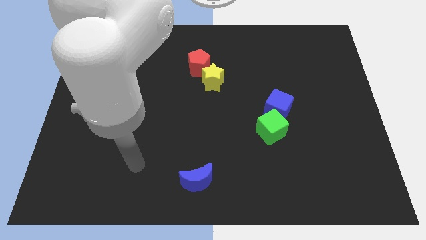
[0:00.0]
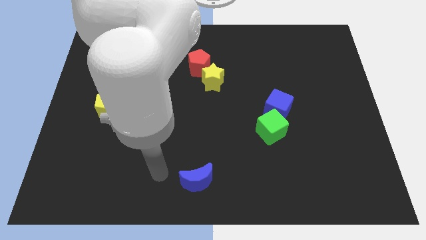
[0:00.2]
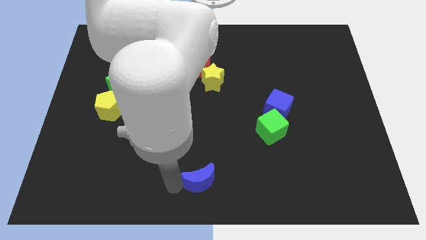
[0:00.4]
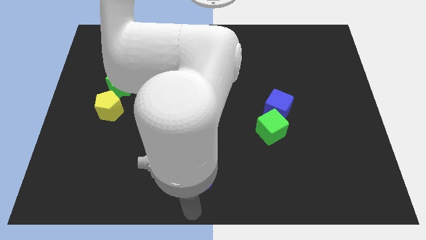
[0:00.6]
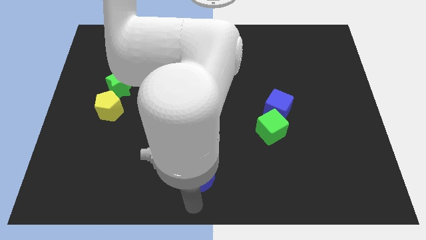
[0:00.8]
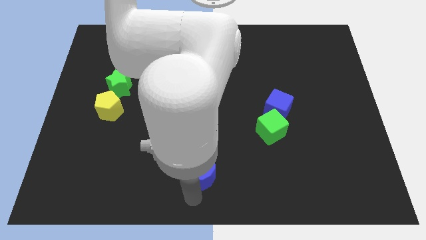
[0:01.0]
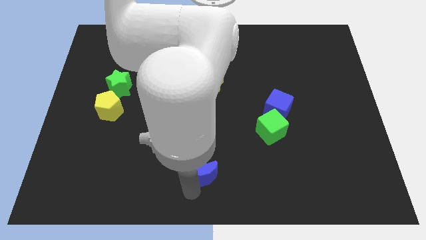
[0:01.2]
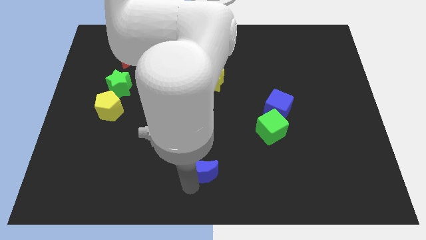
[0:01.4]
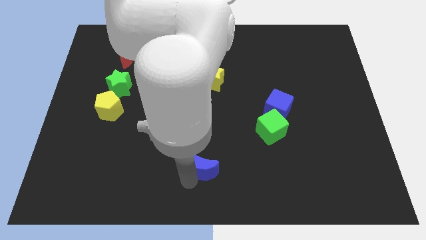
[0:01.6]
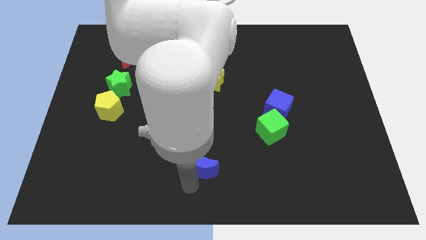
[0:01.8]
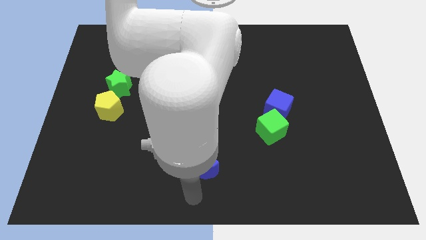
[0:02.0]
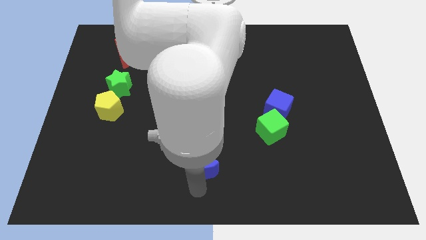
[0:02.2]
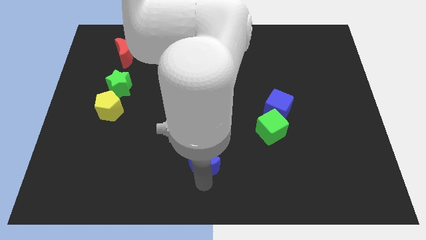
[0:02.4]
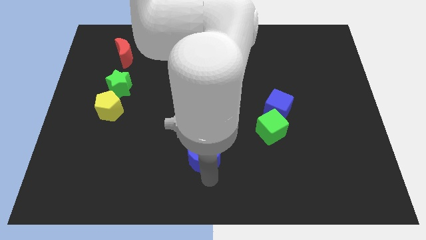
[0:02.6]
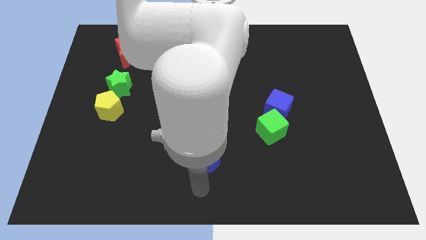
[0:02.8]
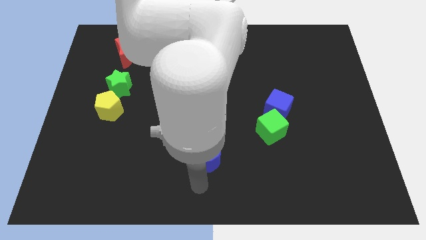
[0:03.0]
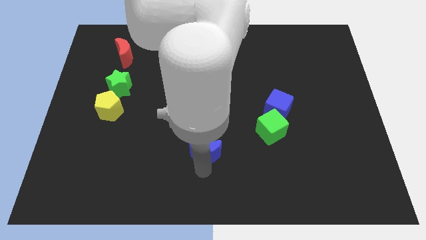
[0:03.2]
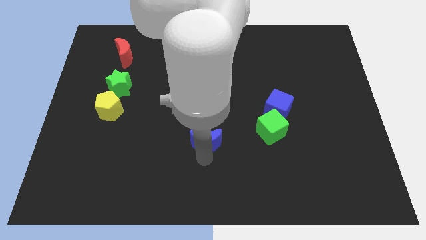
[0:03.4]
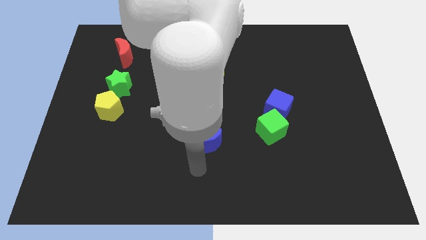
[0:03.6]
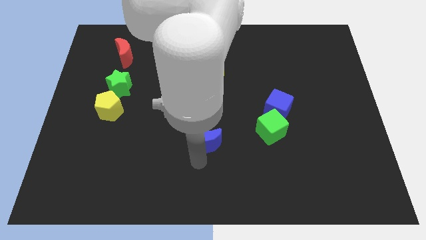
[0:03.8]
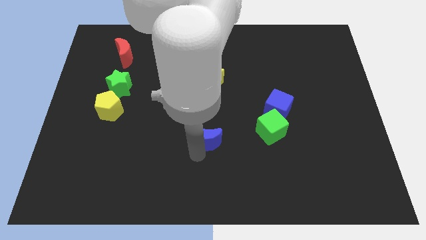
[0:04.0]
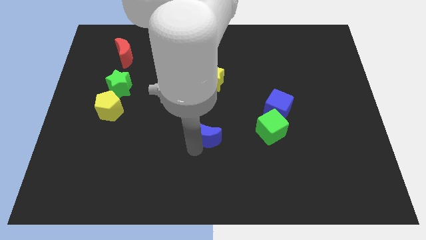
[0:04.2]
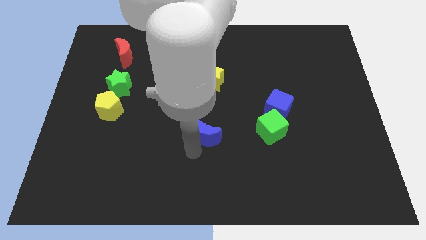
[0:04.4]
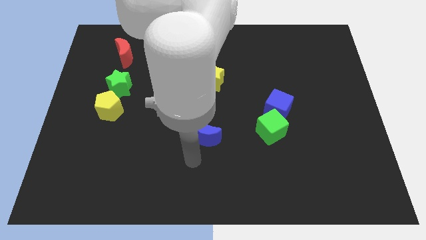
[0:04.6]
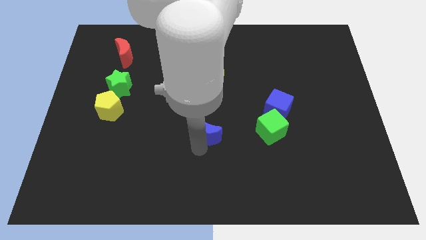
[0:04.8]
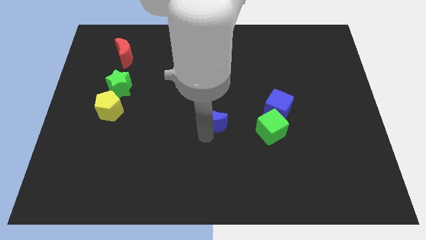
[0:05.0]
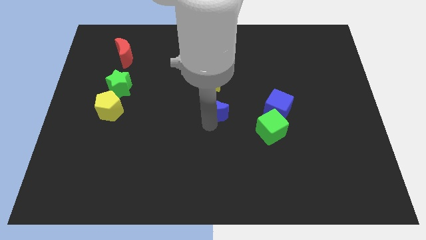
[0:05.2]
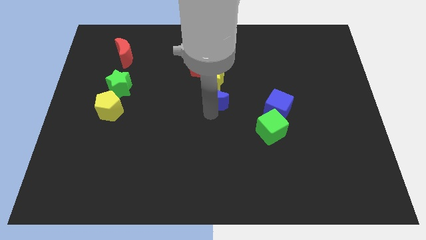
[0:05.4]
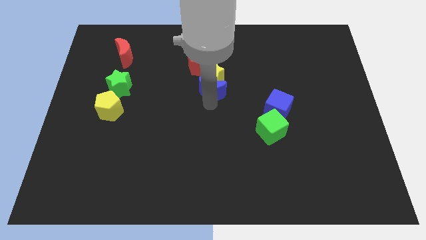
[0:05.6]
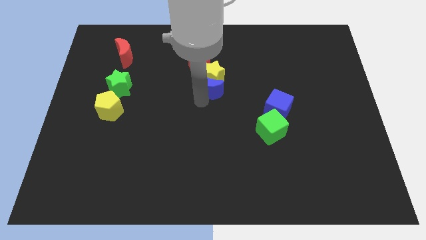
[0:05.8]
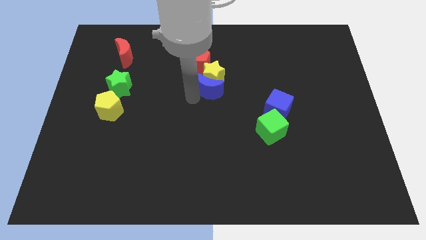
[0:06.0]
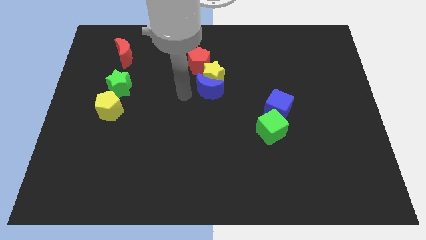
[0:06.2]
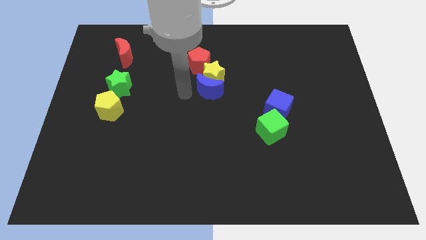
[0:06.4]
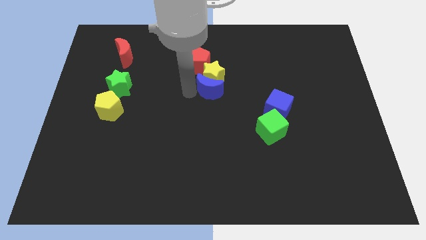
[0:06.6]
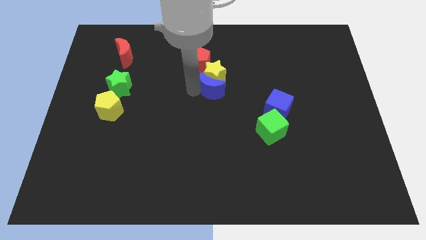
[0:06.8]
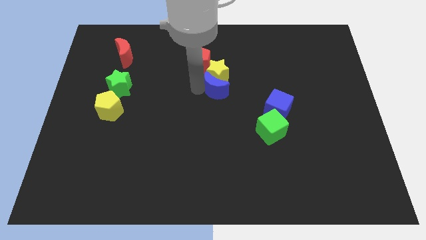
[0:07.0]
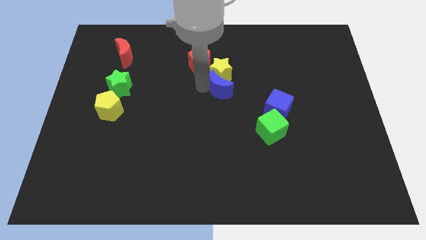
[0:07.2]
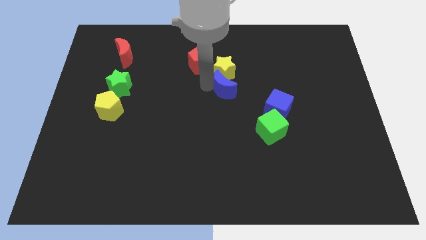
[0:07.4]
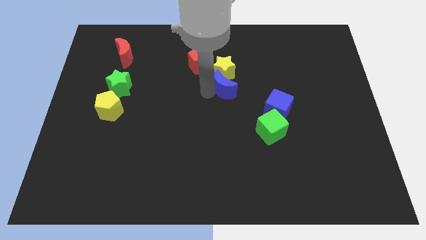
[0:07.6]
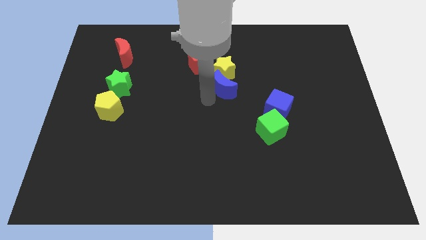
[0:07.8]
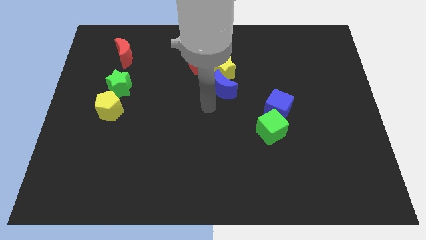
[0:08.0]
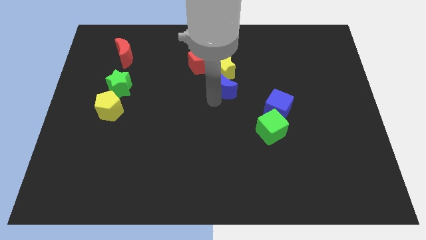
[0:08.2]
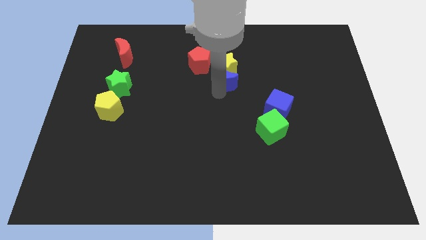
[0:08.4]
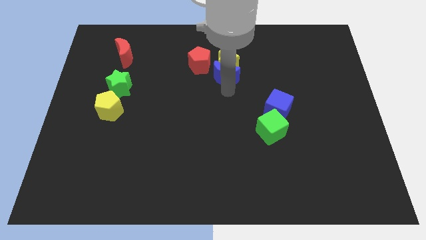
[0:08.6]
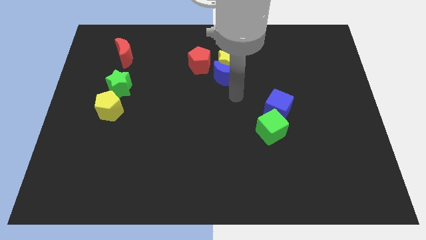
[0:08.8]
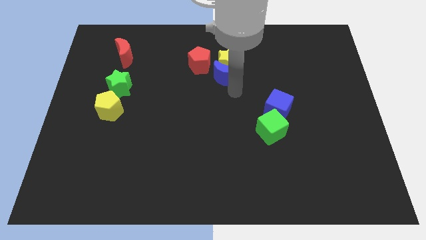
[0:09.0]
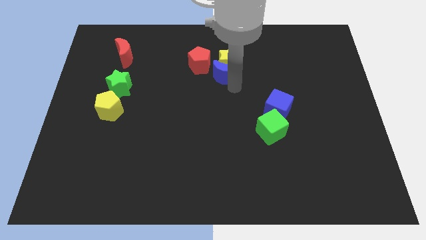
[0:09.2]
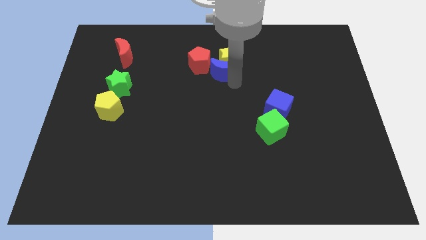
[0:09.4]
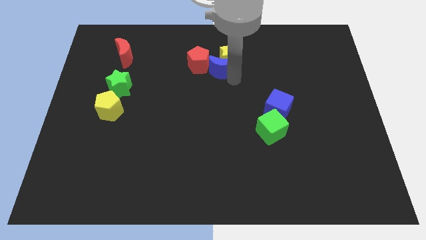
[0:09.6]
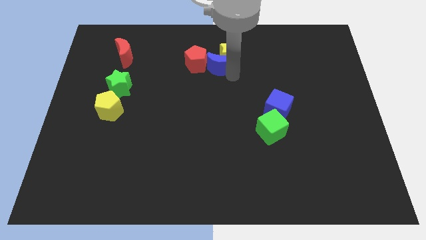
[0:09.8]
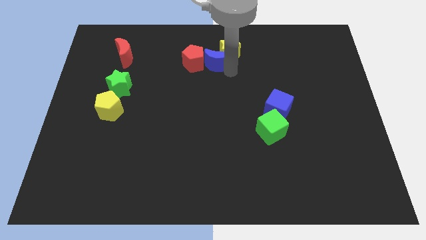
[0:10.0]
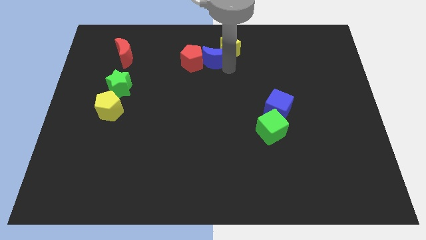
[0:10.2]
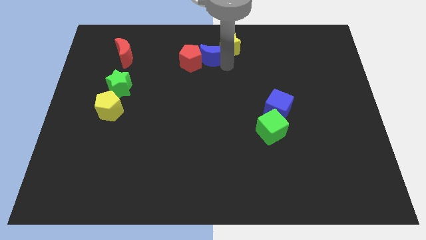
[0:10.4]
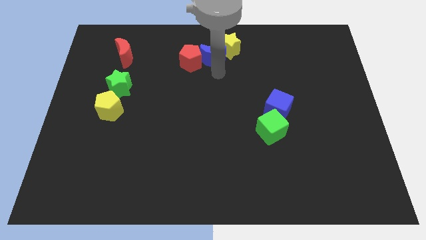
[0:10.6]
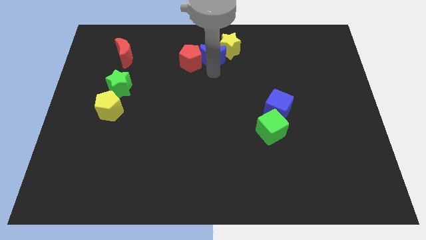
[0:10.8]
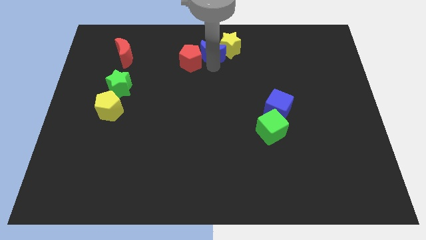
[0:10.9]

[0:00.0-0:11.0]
push the blue moon to the towards your base

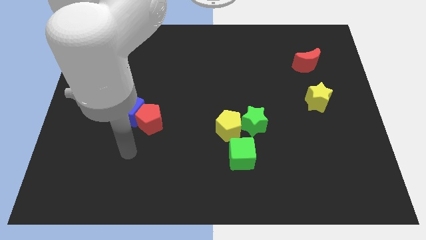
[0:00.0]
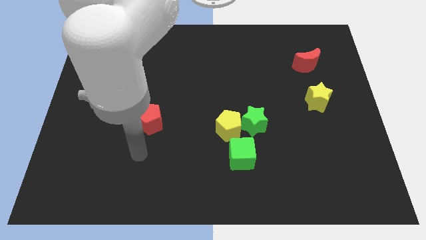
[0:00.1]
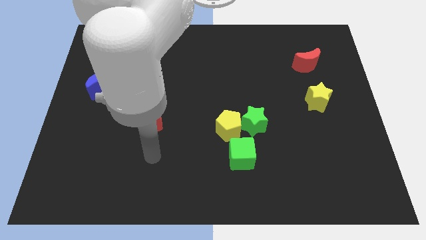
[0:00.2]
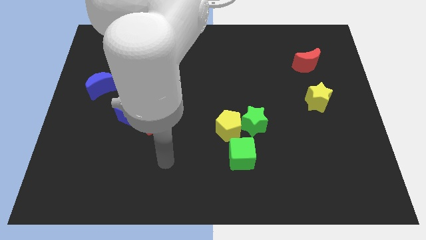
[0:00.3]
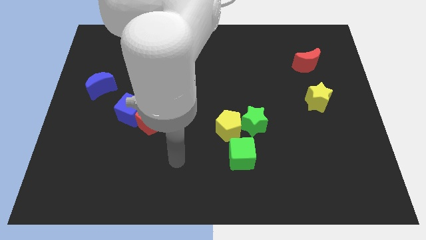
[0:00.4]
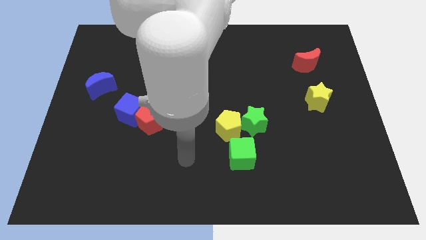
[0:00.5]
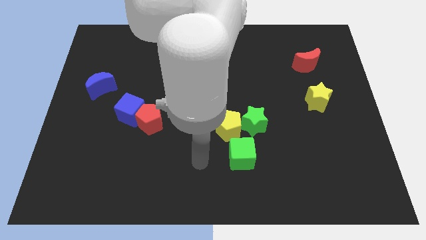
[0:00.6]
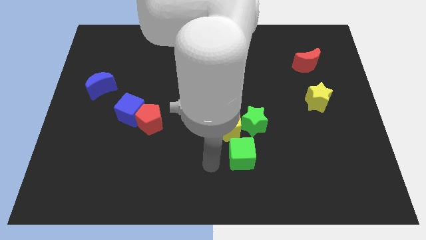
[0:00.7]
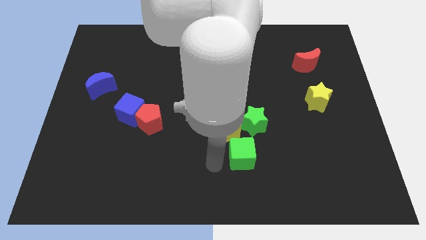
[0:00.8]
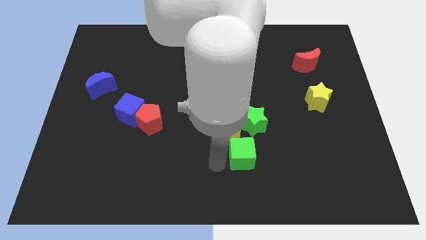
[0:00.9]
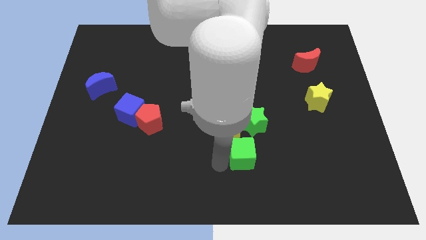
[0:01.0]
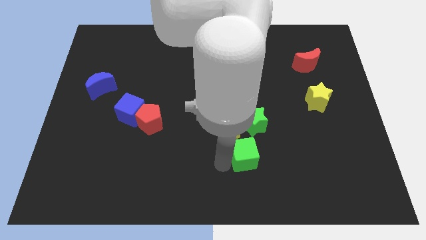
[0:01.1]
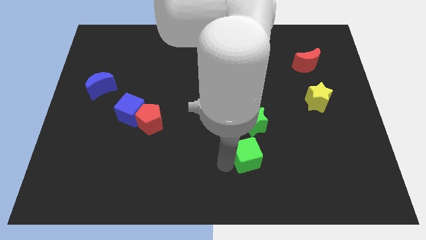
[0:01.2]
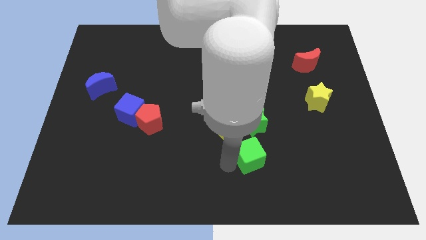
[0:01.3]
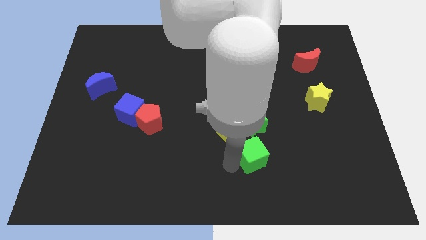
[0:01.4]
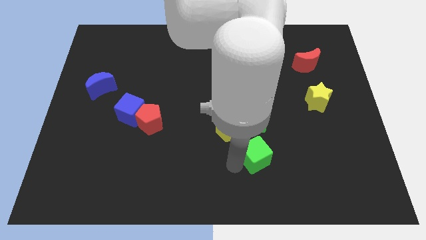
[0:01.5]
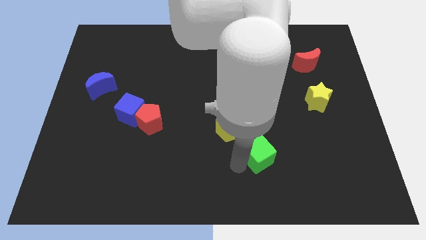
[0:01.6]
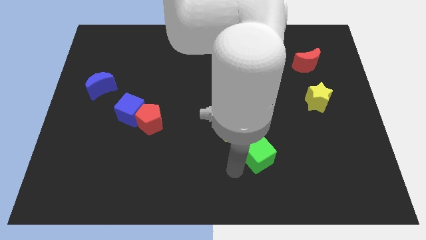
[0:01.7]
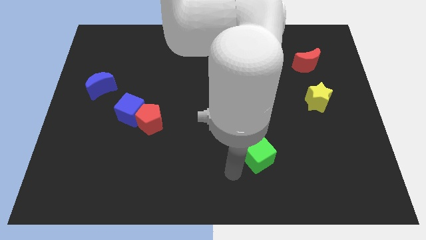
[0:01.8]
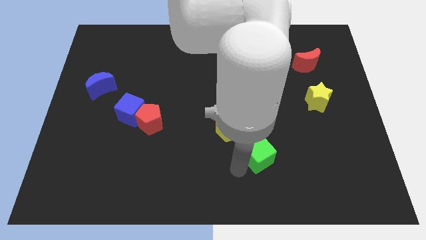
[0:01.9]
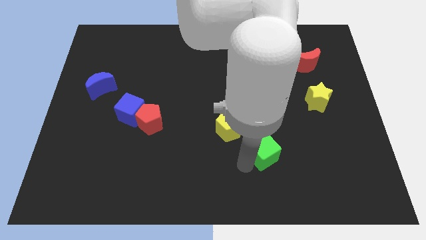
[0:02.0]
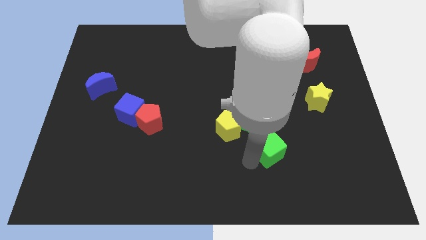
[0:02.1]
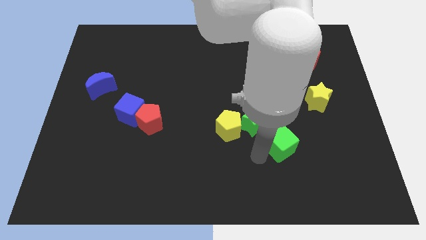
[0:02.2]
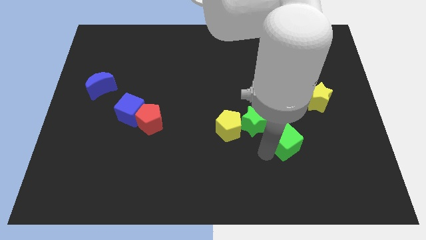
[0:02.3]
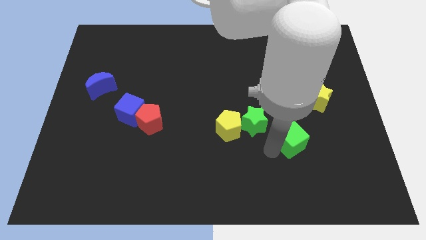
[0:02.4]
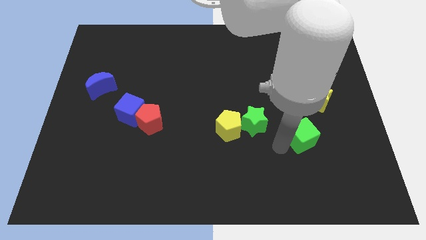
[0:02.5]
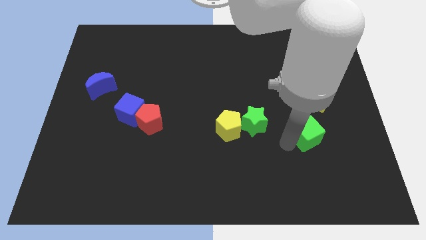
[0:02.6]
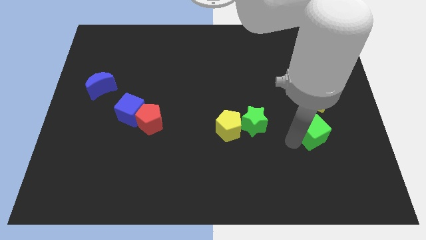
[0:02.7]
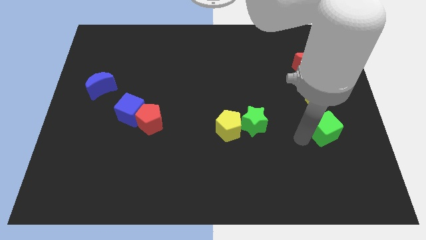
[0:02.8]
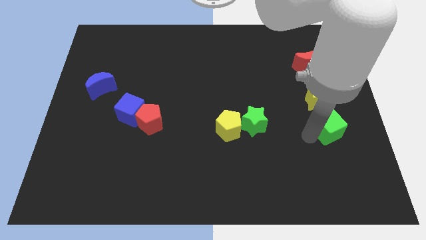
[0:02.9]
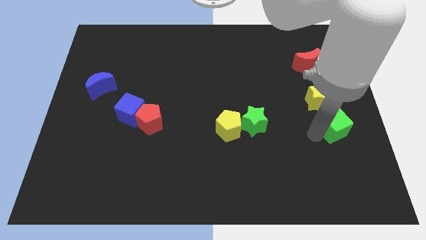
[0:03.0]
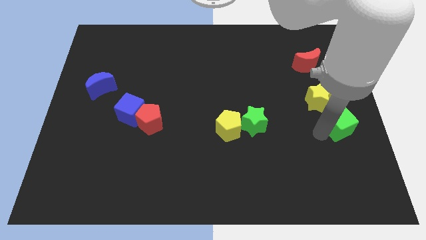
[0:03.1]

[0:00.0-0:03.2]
move the green cube to the center right
